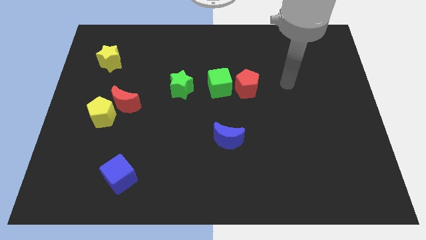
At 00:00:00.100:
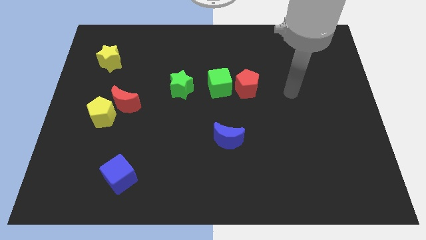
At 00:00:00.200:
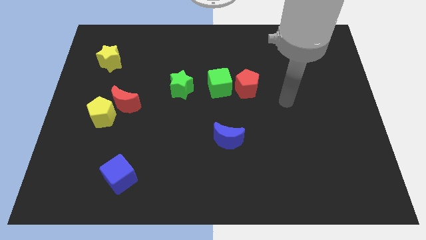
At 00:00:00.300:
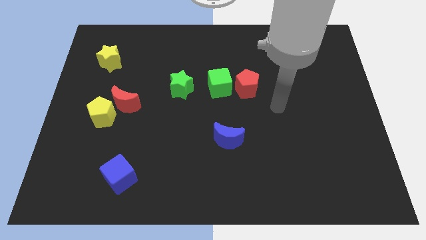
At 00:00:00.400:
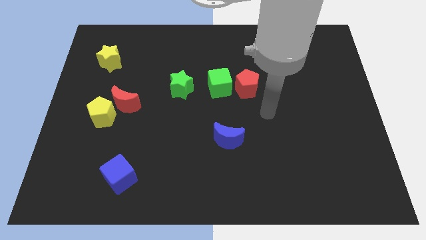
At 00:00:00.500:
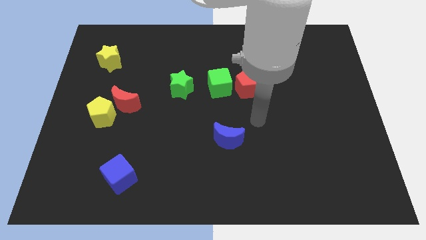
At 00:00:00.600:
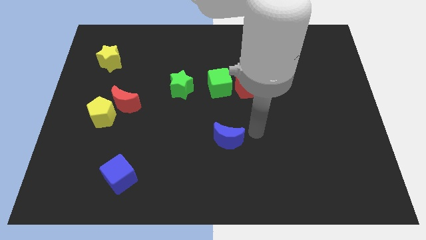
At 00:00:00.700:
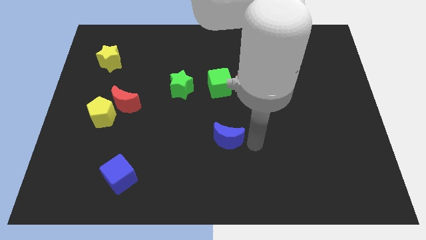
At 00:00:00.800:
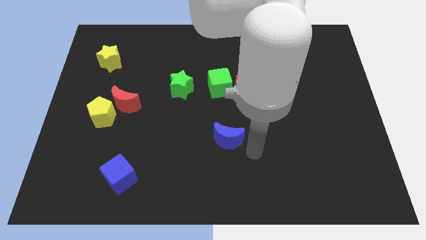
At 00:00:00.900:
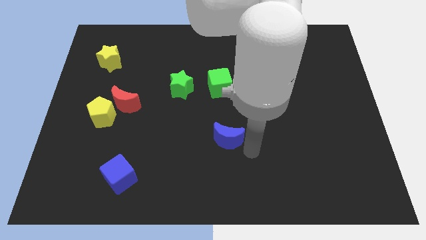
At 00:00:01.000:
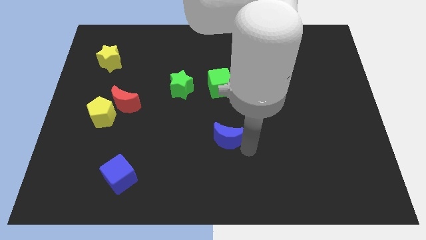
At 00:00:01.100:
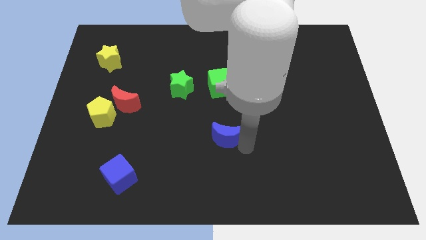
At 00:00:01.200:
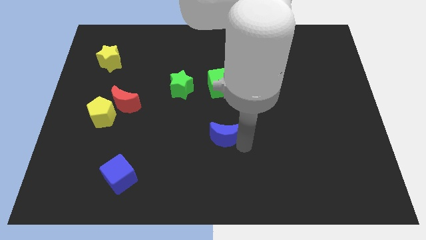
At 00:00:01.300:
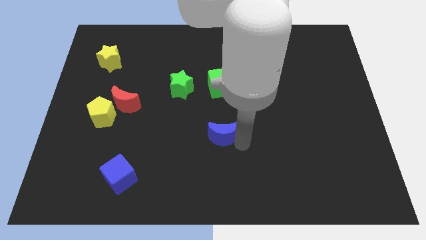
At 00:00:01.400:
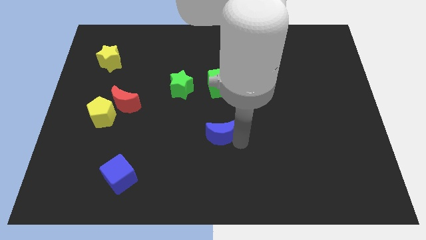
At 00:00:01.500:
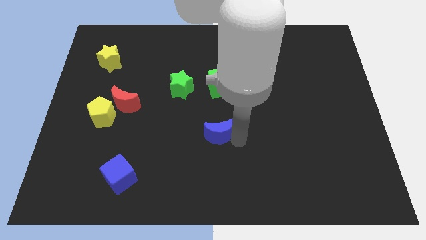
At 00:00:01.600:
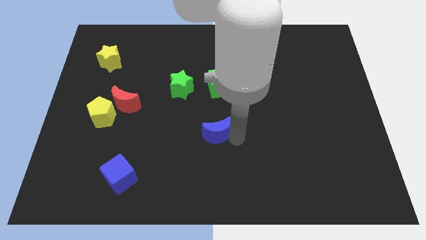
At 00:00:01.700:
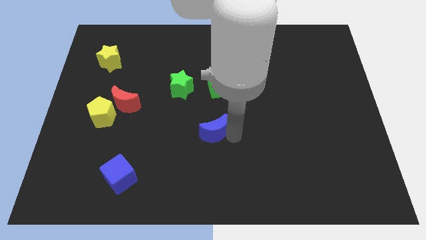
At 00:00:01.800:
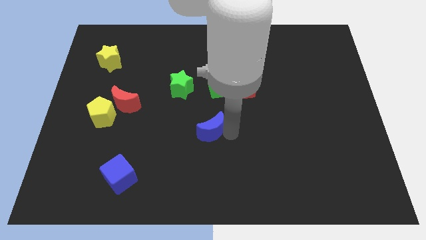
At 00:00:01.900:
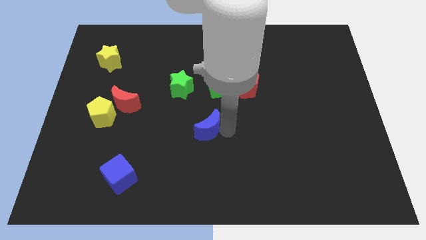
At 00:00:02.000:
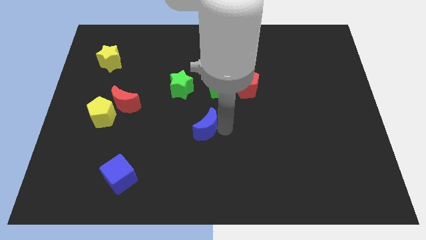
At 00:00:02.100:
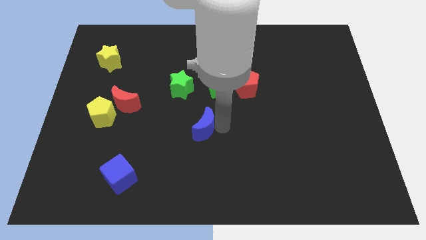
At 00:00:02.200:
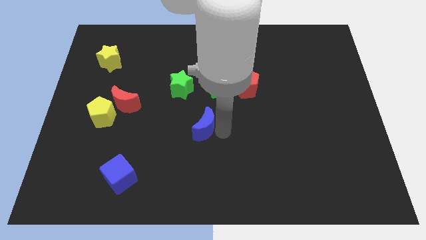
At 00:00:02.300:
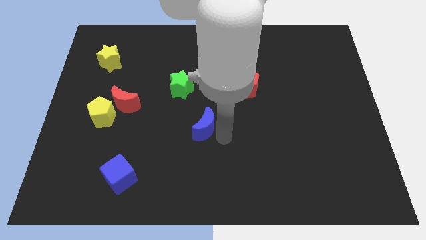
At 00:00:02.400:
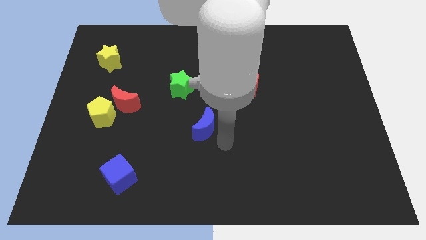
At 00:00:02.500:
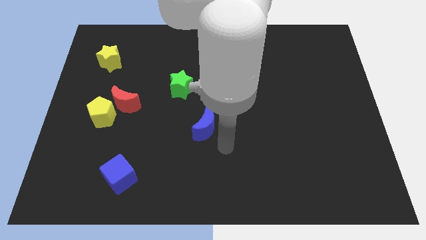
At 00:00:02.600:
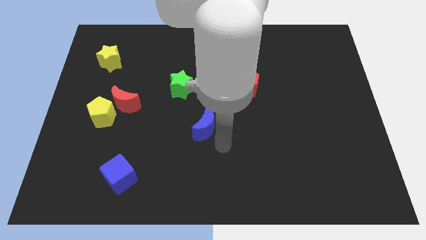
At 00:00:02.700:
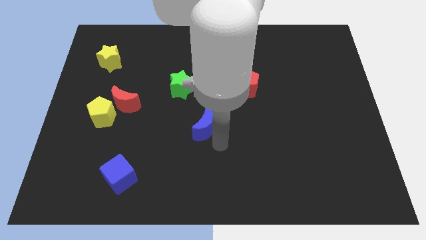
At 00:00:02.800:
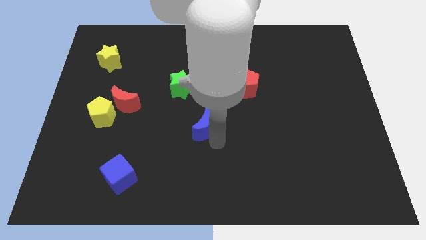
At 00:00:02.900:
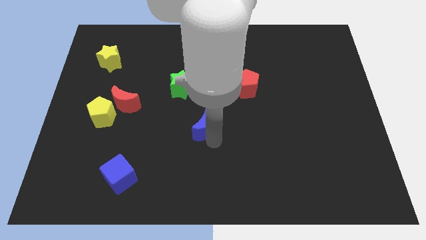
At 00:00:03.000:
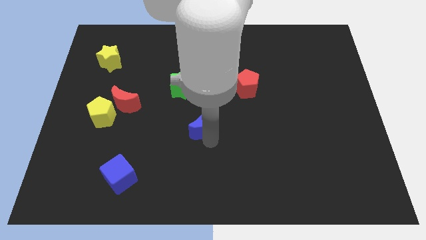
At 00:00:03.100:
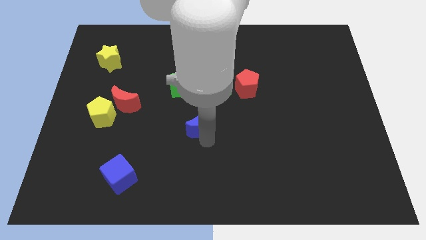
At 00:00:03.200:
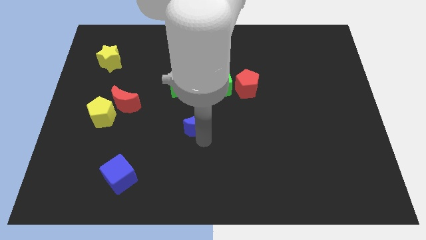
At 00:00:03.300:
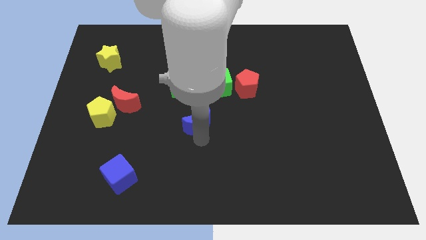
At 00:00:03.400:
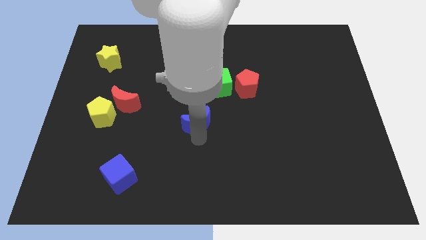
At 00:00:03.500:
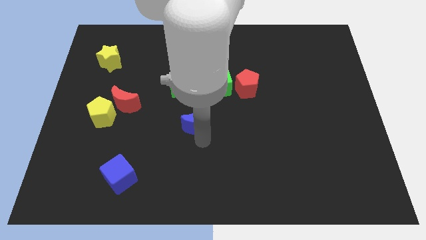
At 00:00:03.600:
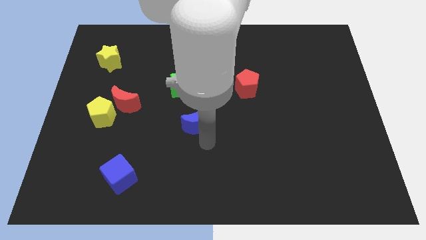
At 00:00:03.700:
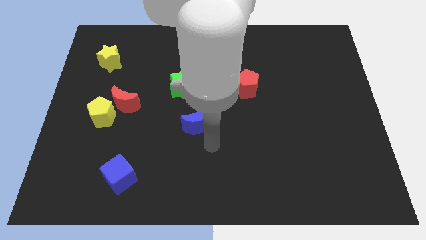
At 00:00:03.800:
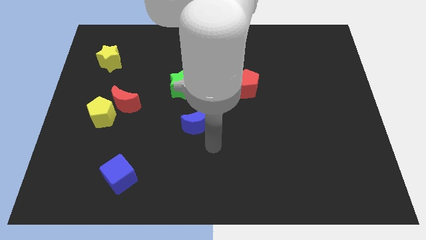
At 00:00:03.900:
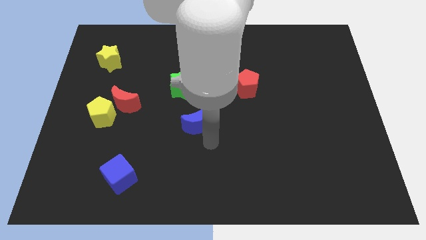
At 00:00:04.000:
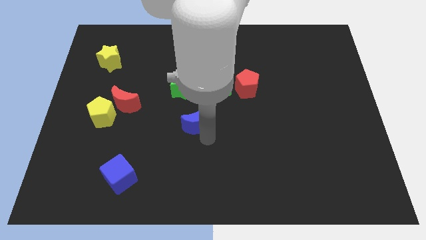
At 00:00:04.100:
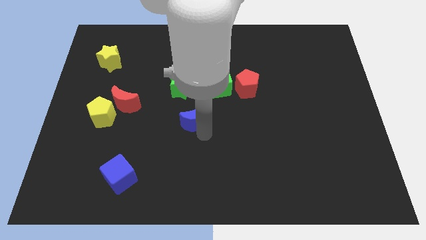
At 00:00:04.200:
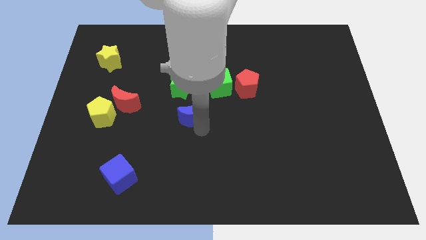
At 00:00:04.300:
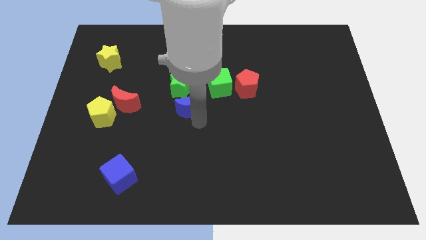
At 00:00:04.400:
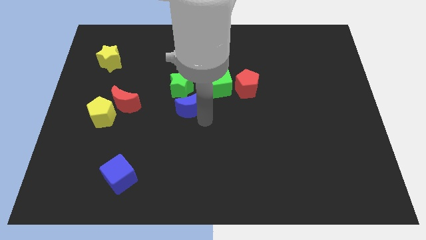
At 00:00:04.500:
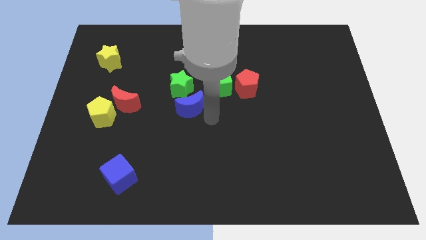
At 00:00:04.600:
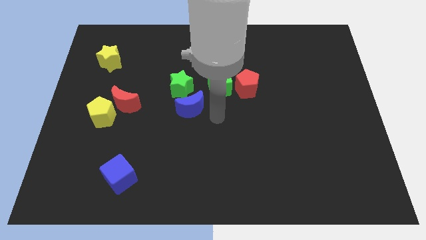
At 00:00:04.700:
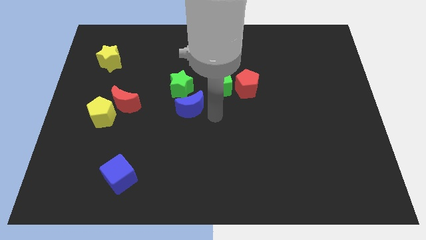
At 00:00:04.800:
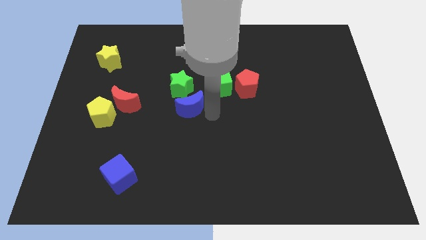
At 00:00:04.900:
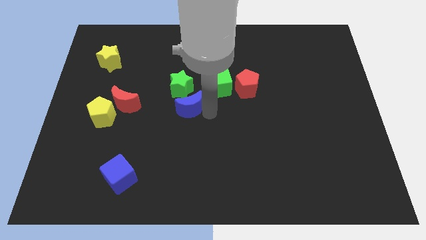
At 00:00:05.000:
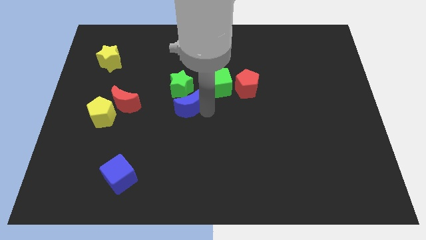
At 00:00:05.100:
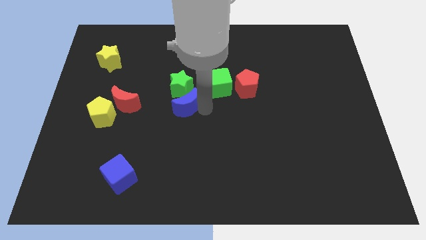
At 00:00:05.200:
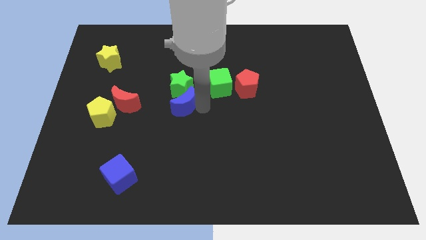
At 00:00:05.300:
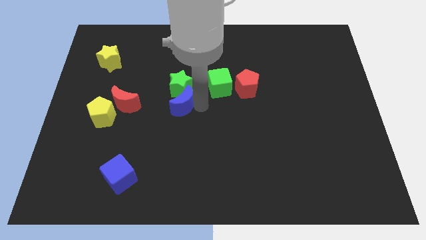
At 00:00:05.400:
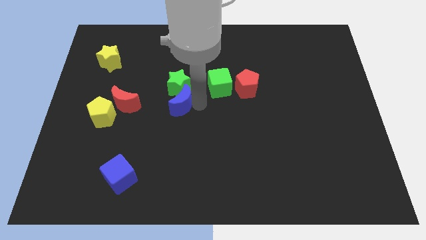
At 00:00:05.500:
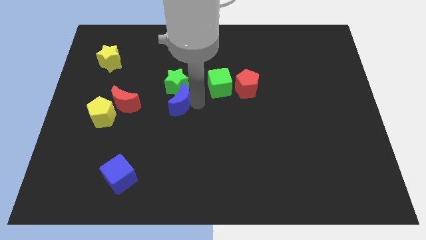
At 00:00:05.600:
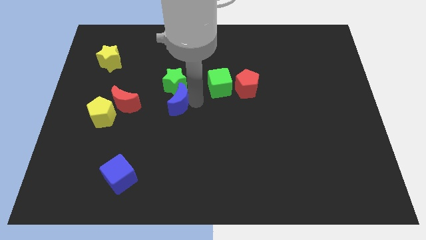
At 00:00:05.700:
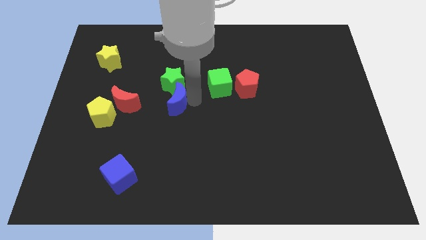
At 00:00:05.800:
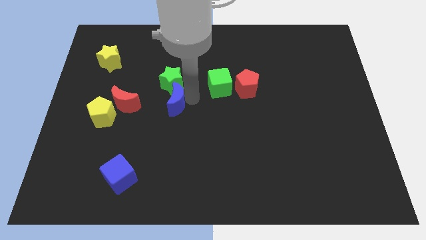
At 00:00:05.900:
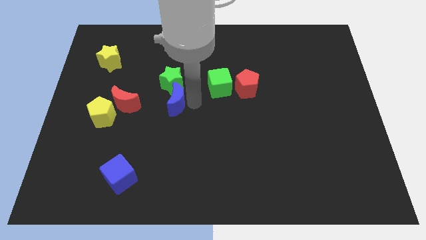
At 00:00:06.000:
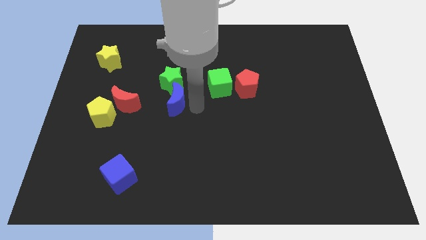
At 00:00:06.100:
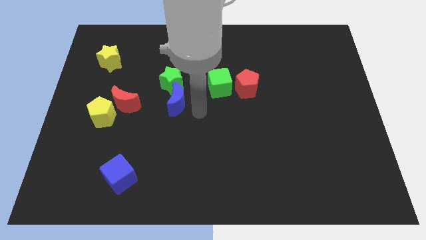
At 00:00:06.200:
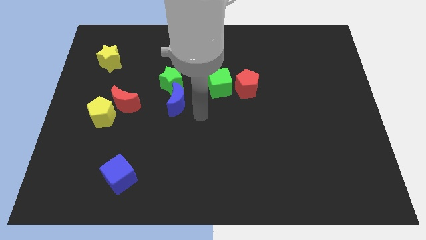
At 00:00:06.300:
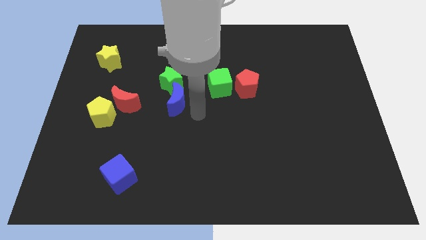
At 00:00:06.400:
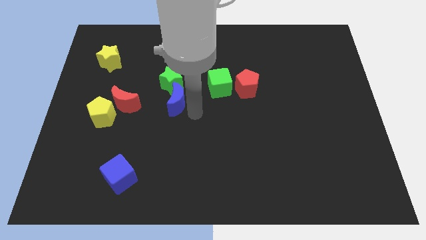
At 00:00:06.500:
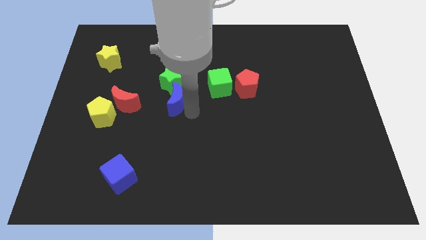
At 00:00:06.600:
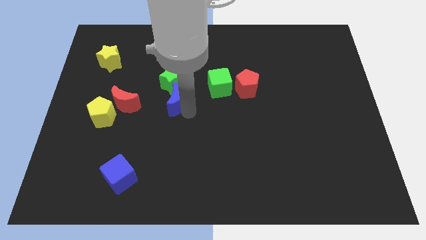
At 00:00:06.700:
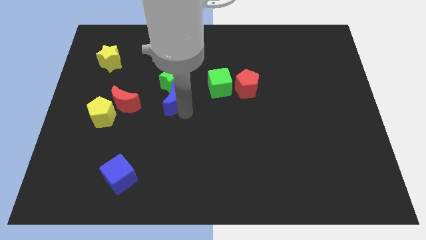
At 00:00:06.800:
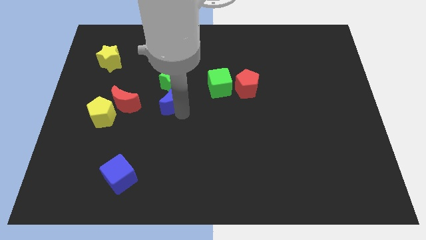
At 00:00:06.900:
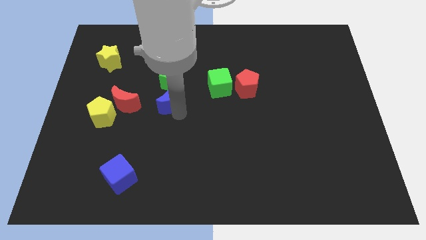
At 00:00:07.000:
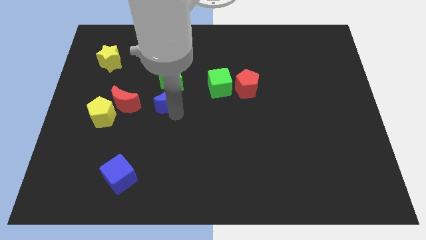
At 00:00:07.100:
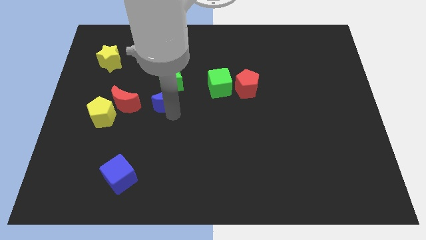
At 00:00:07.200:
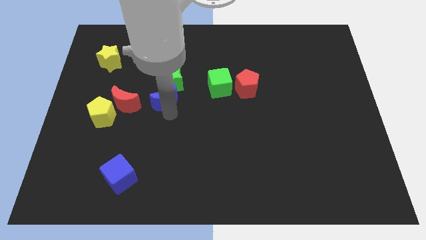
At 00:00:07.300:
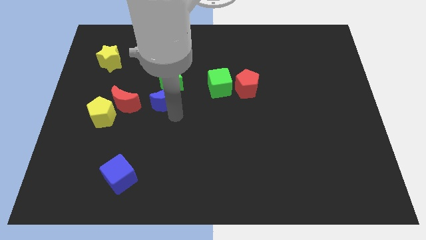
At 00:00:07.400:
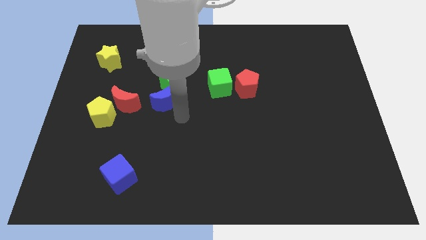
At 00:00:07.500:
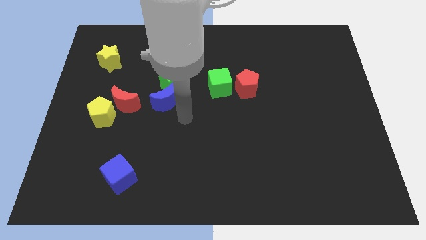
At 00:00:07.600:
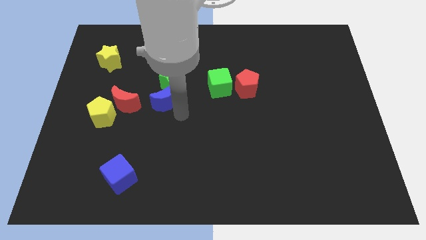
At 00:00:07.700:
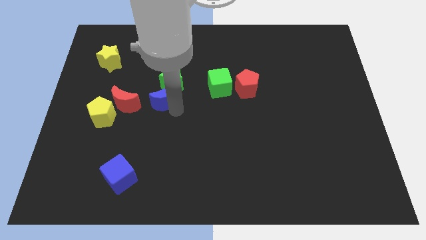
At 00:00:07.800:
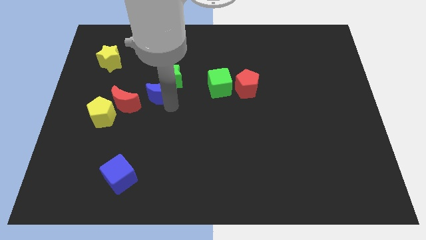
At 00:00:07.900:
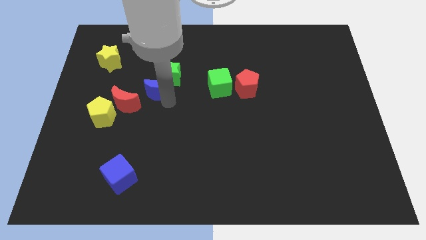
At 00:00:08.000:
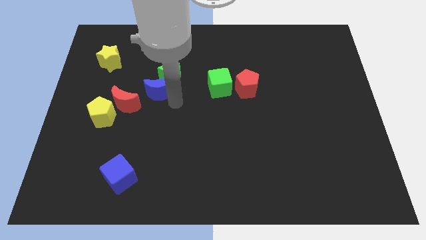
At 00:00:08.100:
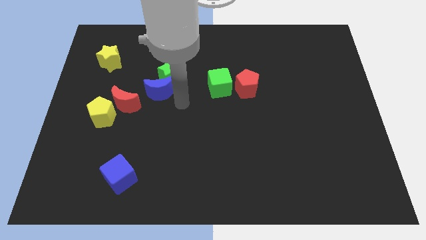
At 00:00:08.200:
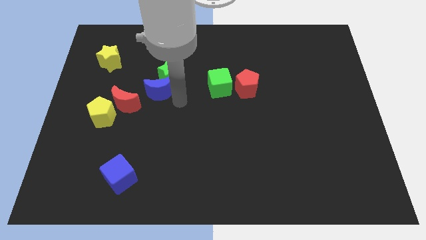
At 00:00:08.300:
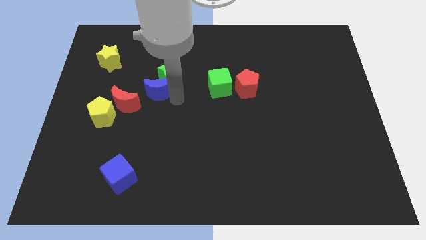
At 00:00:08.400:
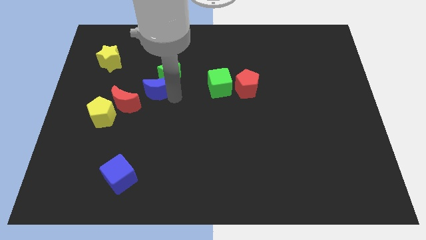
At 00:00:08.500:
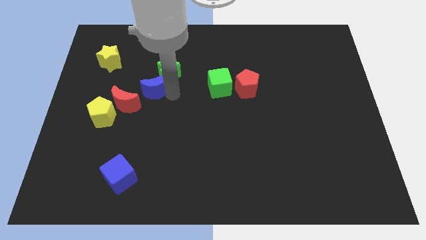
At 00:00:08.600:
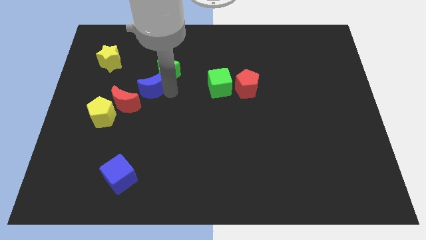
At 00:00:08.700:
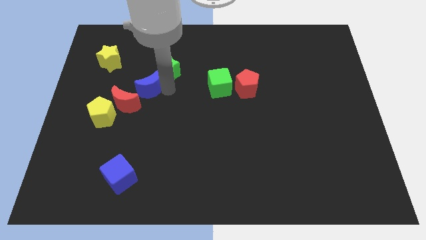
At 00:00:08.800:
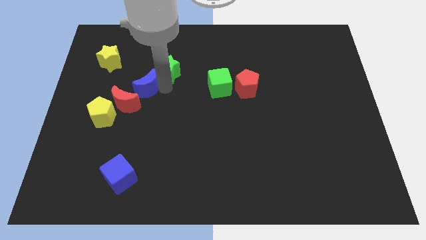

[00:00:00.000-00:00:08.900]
push the blue moon to the left of the green star
